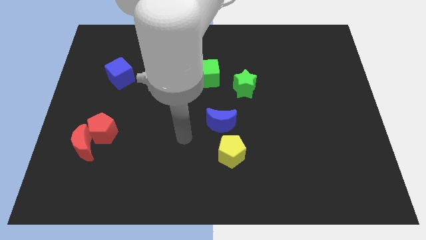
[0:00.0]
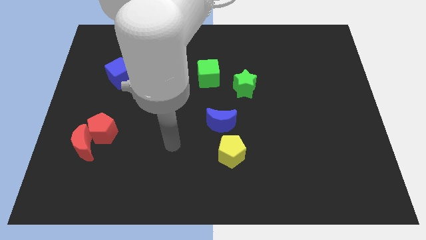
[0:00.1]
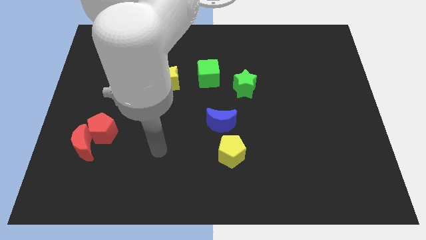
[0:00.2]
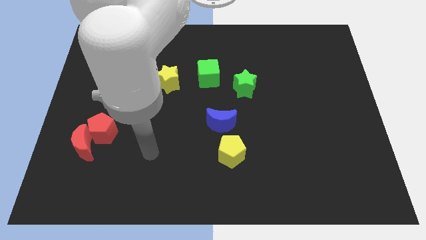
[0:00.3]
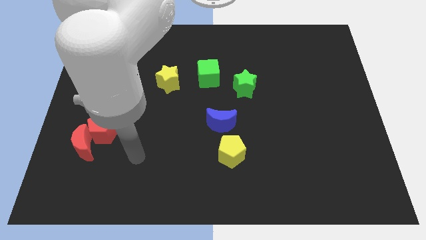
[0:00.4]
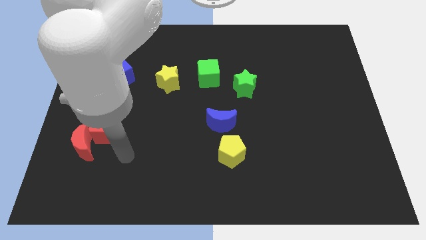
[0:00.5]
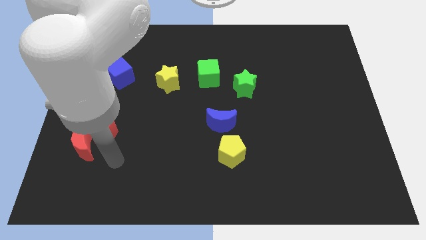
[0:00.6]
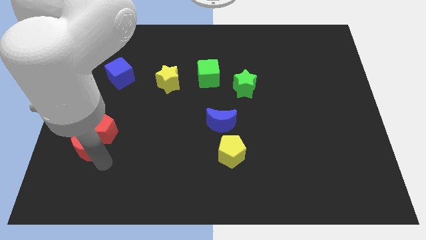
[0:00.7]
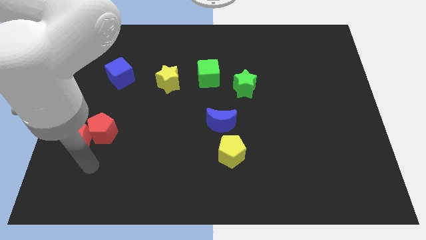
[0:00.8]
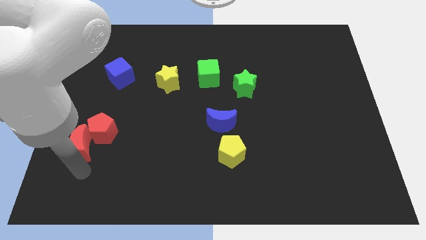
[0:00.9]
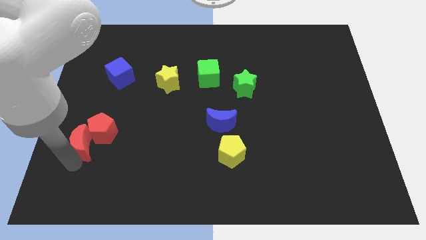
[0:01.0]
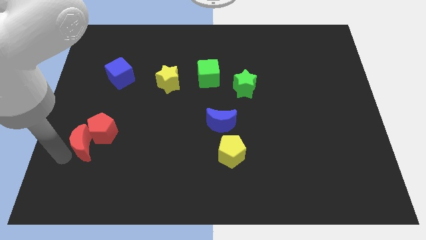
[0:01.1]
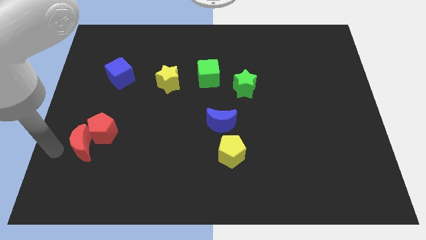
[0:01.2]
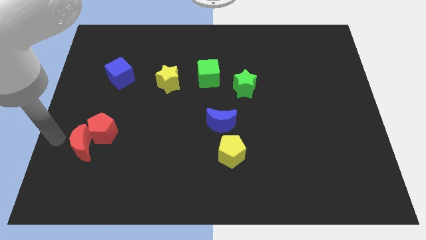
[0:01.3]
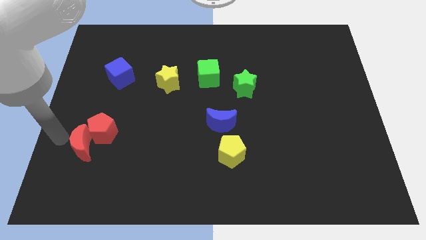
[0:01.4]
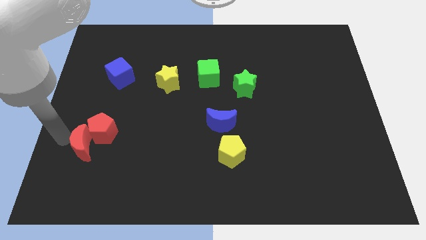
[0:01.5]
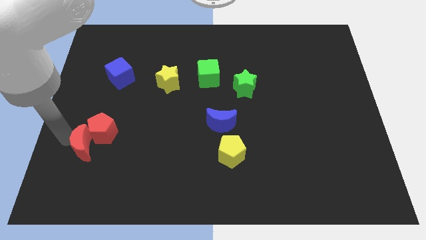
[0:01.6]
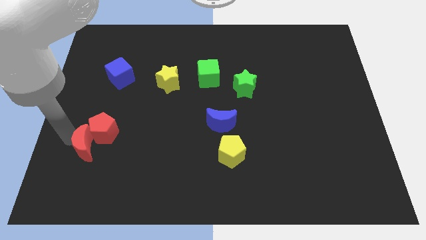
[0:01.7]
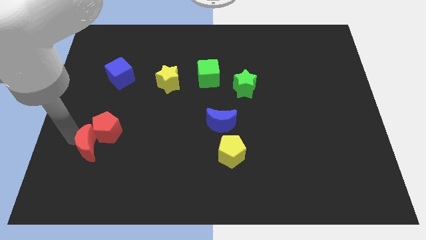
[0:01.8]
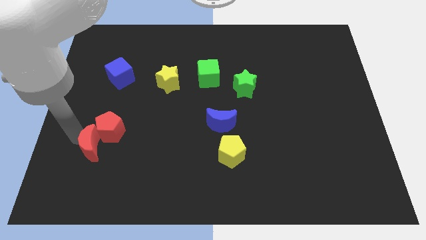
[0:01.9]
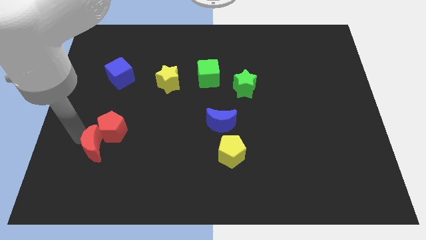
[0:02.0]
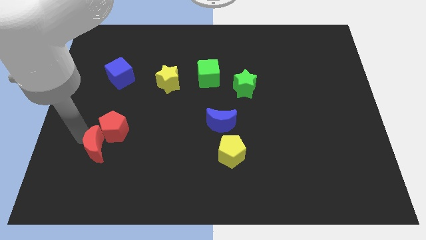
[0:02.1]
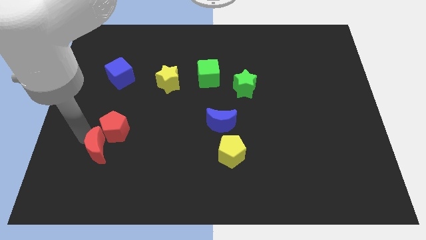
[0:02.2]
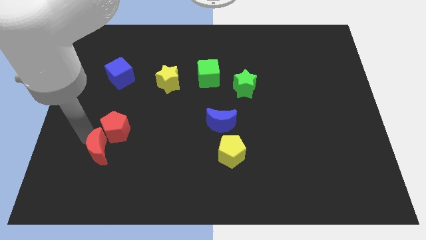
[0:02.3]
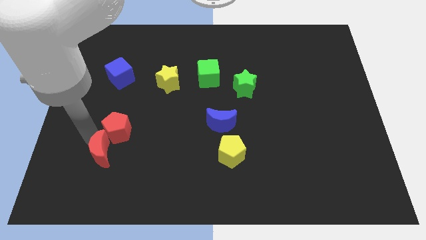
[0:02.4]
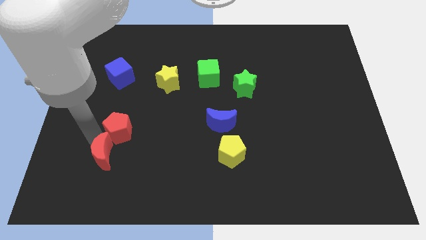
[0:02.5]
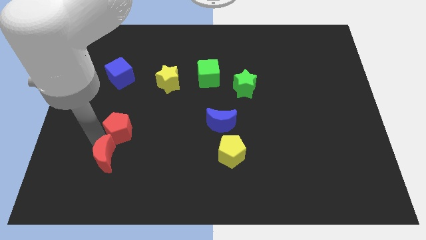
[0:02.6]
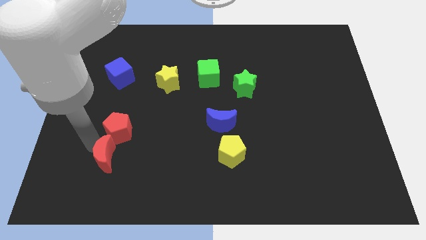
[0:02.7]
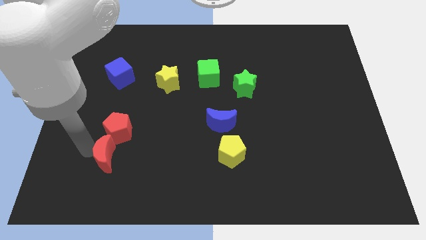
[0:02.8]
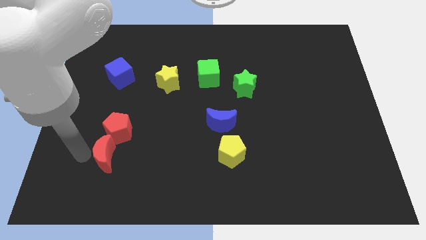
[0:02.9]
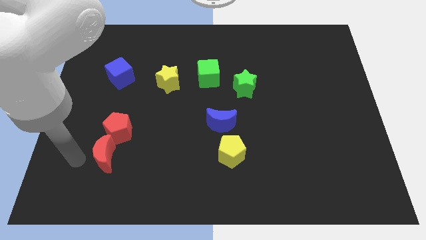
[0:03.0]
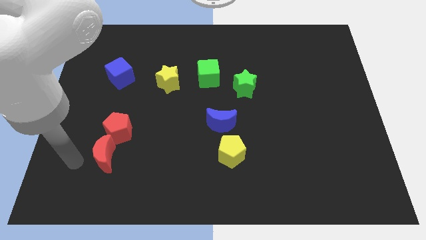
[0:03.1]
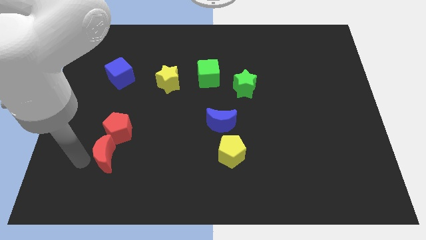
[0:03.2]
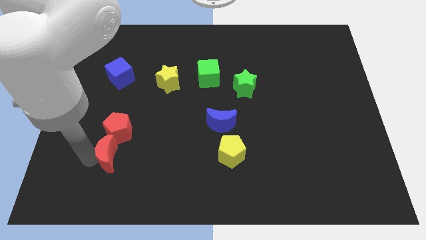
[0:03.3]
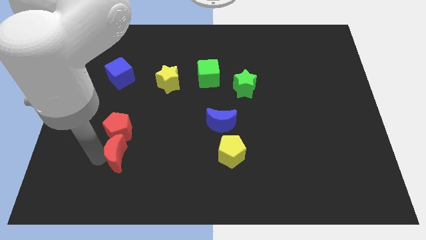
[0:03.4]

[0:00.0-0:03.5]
push the red moon to the right a little bit

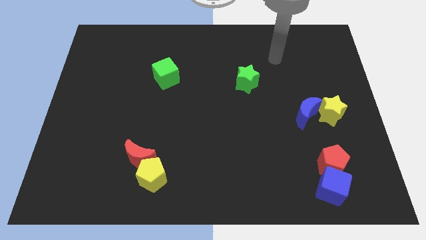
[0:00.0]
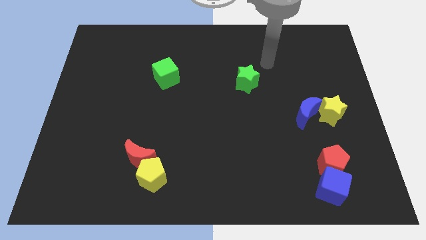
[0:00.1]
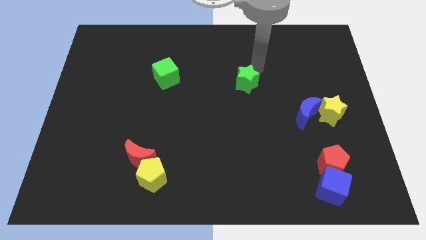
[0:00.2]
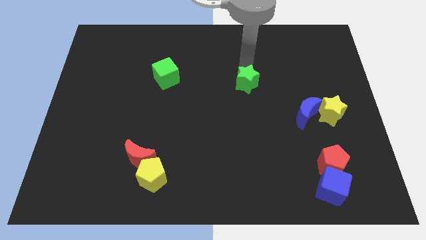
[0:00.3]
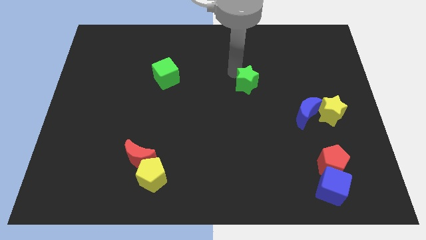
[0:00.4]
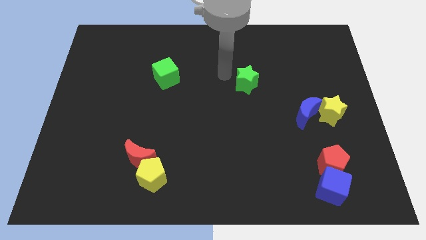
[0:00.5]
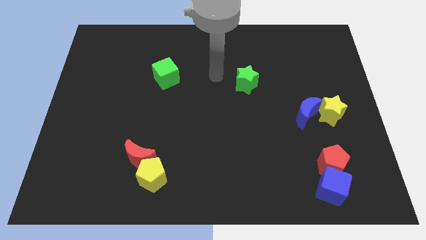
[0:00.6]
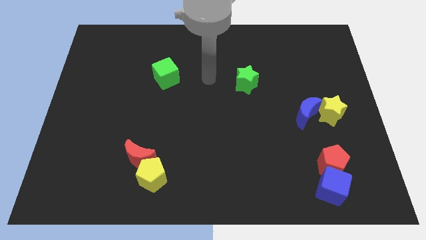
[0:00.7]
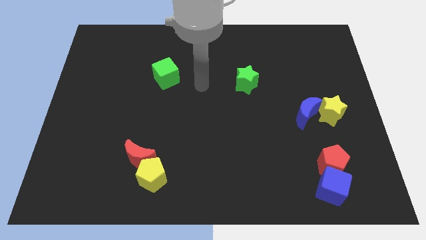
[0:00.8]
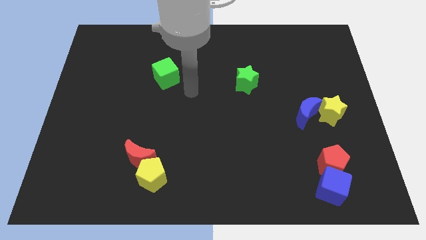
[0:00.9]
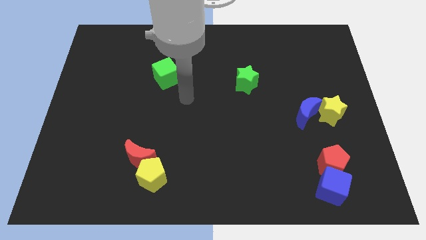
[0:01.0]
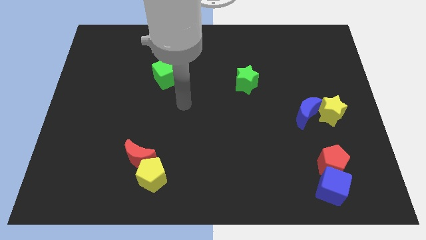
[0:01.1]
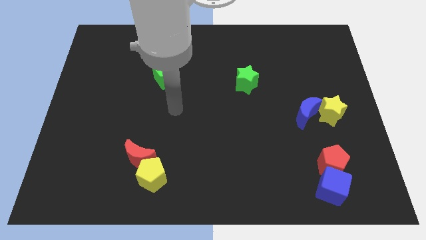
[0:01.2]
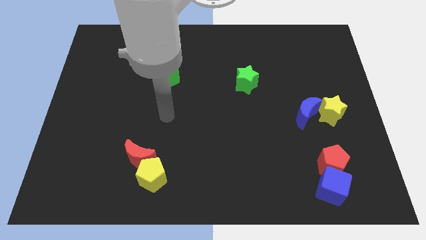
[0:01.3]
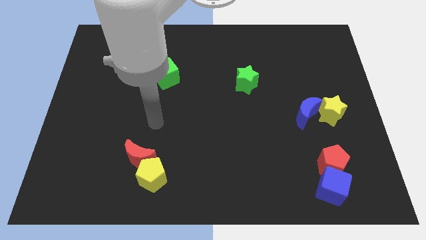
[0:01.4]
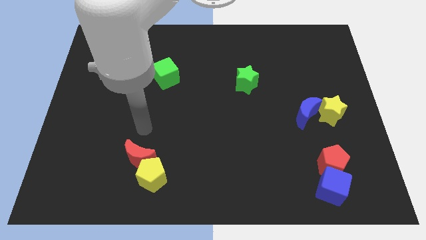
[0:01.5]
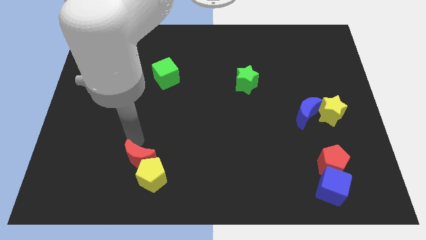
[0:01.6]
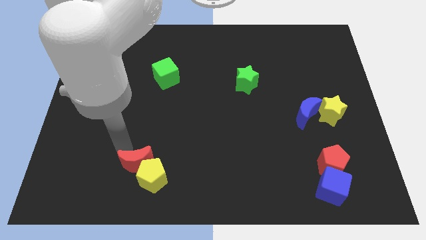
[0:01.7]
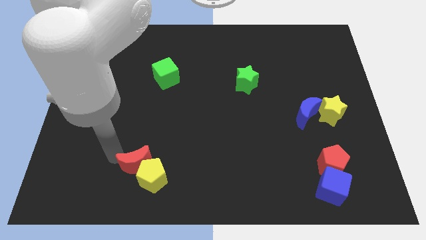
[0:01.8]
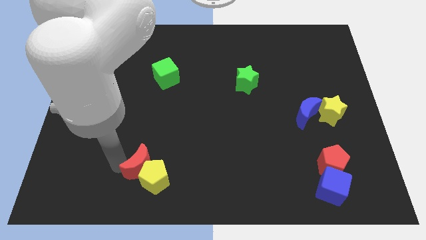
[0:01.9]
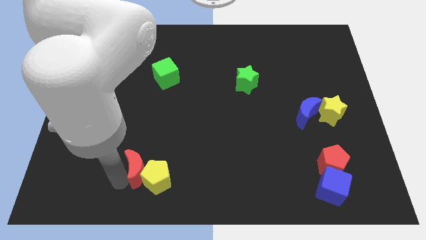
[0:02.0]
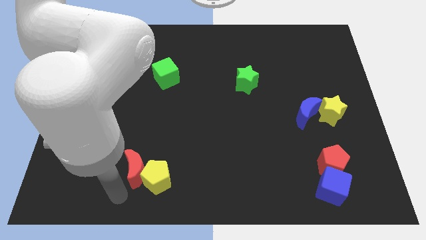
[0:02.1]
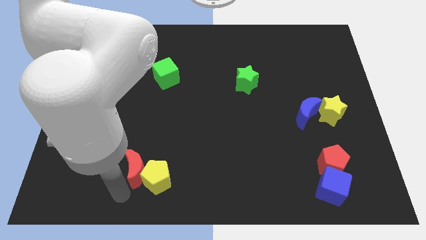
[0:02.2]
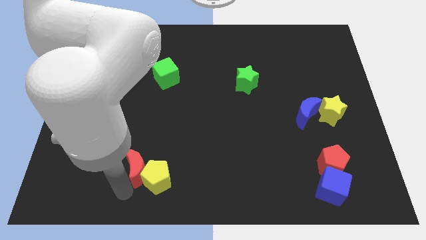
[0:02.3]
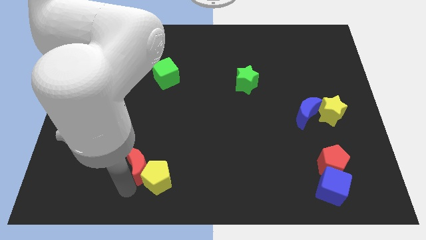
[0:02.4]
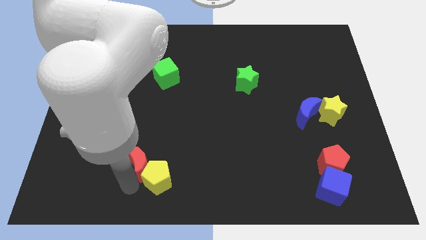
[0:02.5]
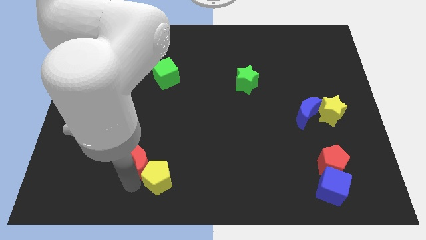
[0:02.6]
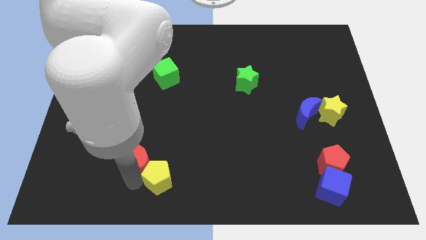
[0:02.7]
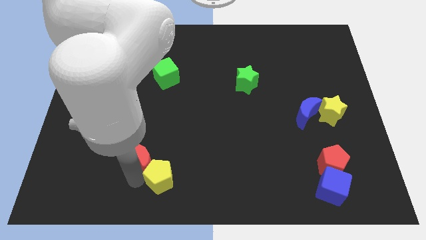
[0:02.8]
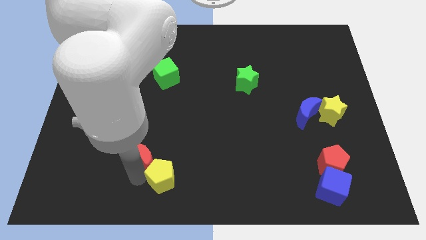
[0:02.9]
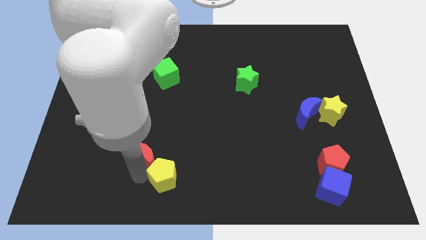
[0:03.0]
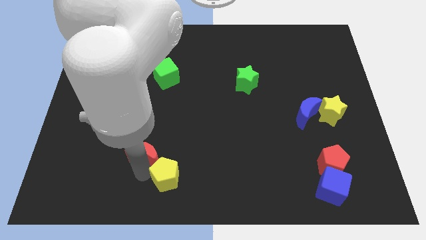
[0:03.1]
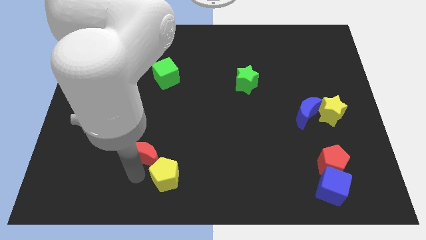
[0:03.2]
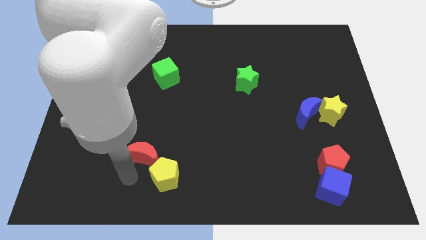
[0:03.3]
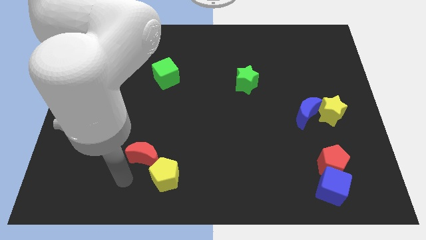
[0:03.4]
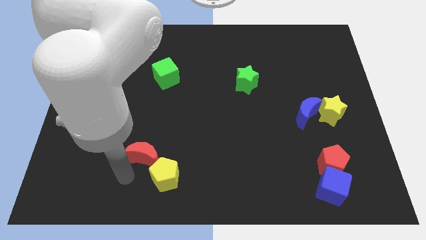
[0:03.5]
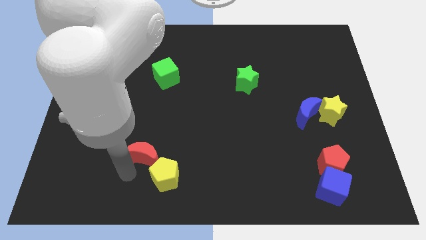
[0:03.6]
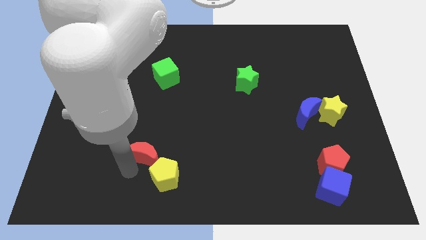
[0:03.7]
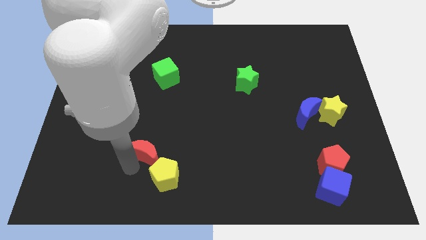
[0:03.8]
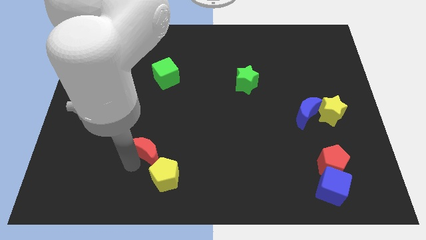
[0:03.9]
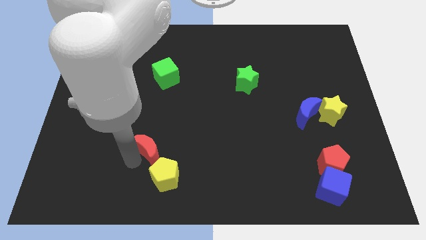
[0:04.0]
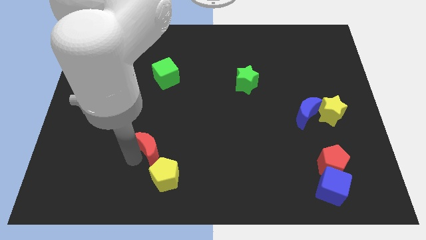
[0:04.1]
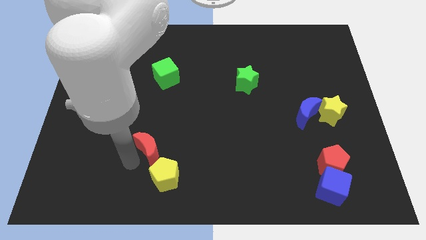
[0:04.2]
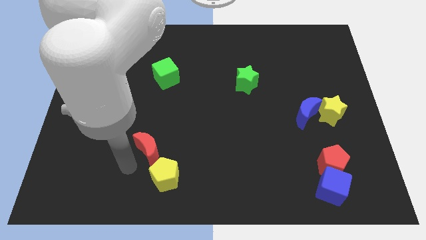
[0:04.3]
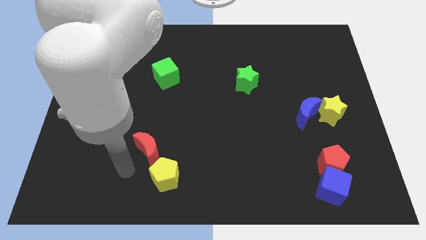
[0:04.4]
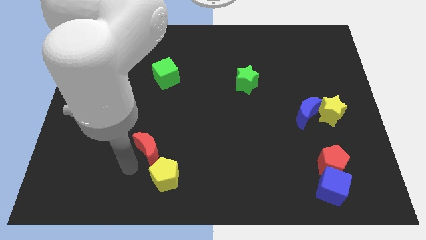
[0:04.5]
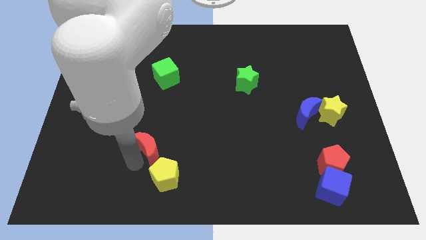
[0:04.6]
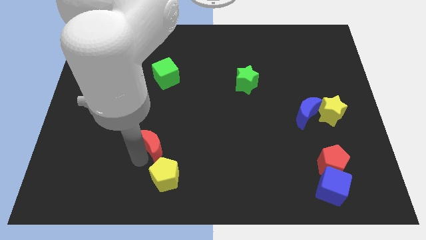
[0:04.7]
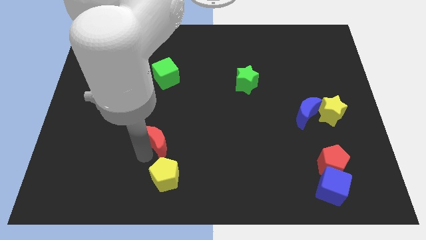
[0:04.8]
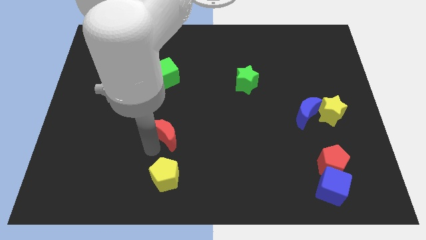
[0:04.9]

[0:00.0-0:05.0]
push the red moon upwards and to the right a little bit
